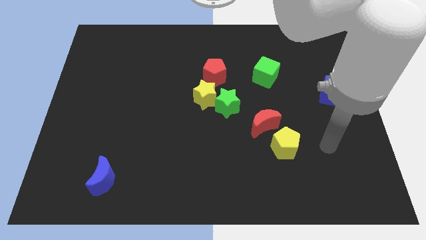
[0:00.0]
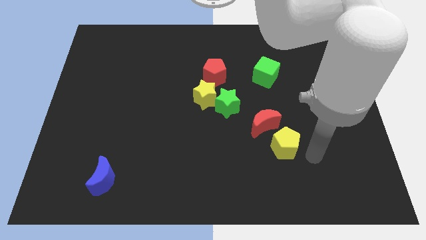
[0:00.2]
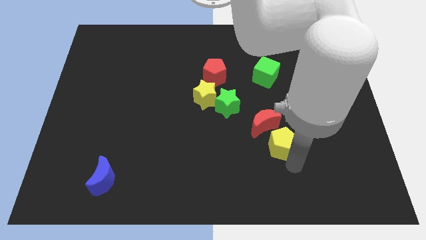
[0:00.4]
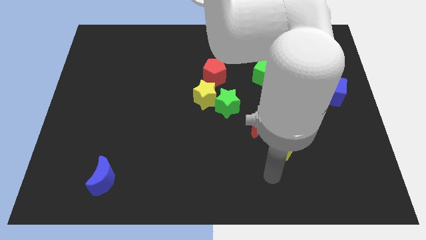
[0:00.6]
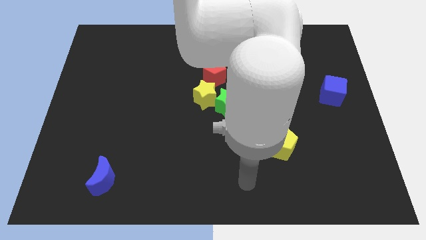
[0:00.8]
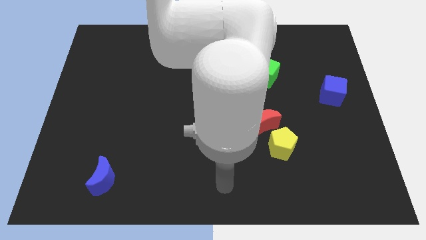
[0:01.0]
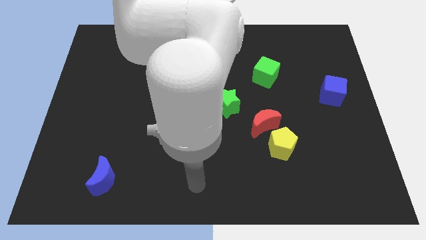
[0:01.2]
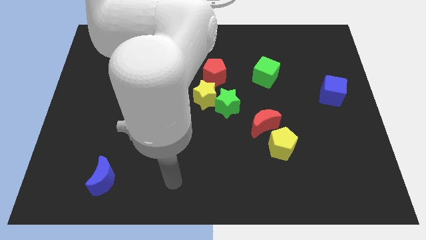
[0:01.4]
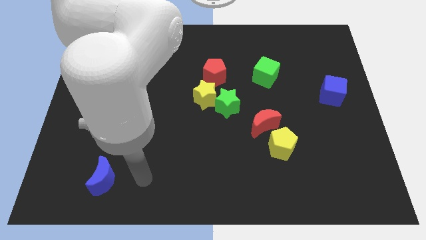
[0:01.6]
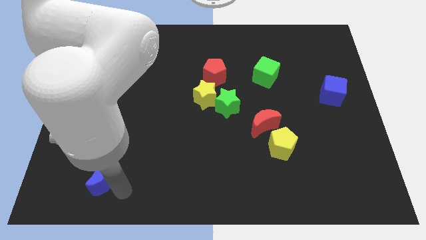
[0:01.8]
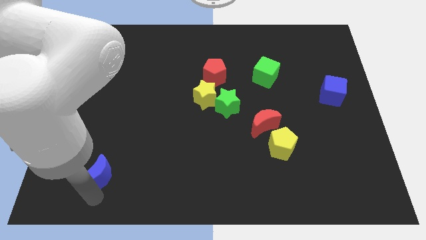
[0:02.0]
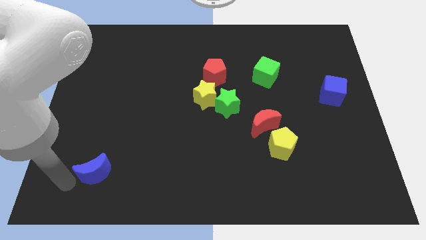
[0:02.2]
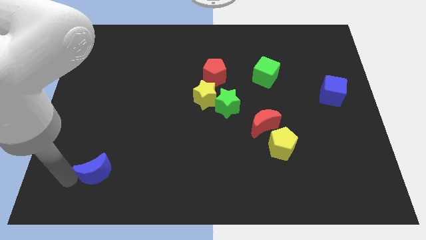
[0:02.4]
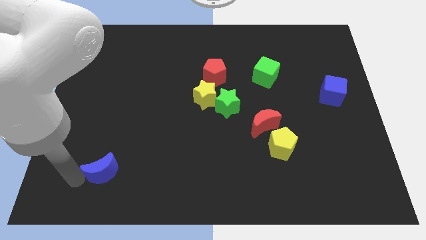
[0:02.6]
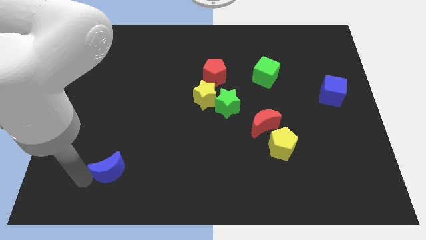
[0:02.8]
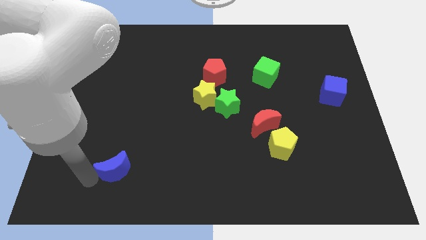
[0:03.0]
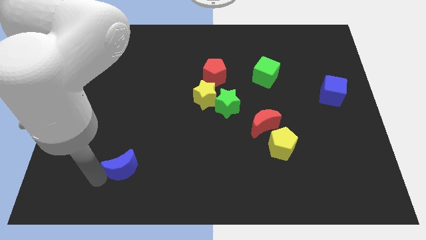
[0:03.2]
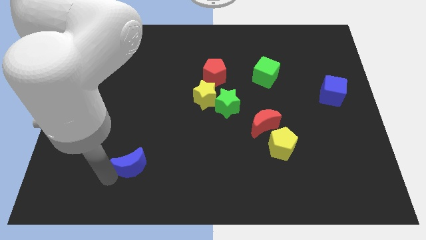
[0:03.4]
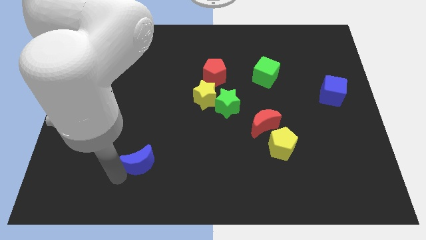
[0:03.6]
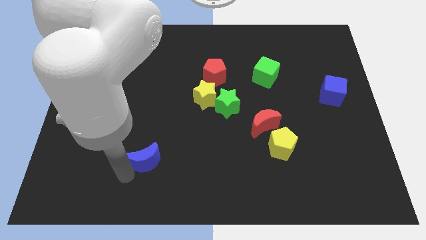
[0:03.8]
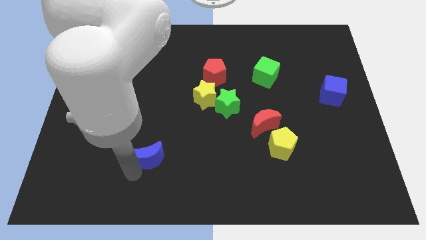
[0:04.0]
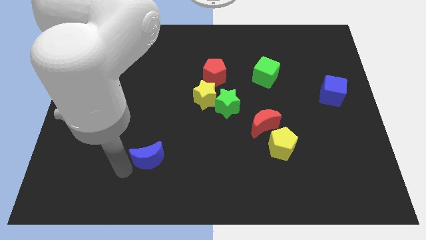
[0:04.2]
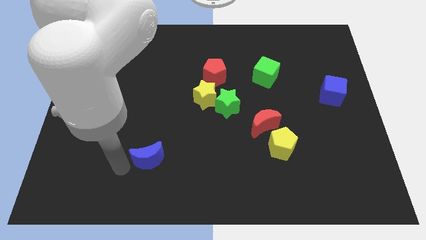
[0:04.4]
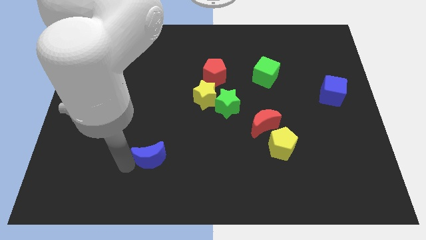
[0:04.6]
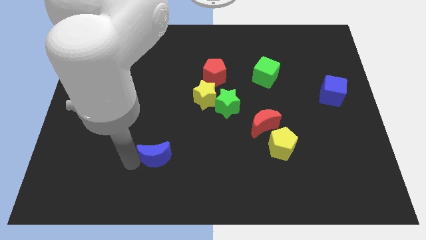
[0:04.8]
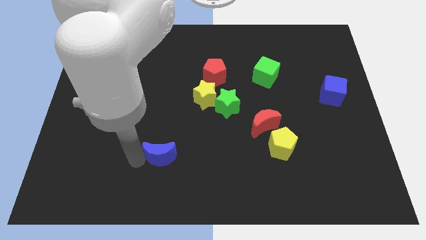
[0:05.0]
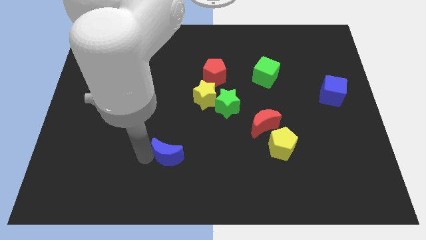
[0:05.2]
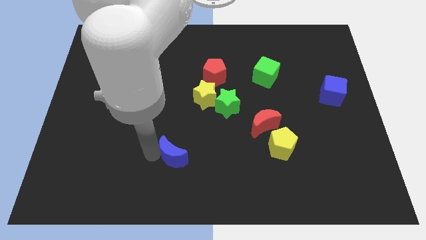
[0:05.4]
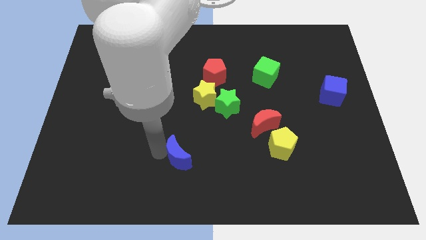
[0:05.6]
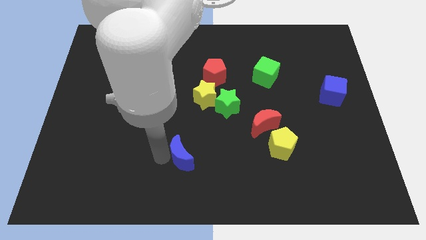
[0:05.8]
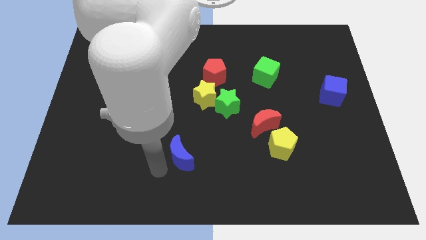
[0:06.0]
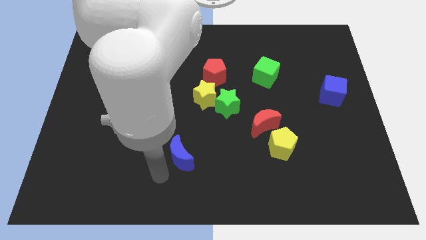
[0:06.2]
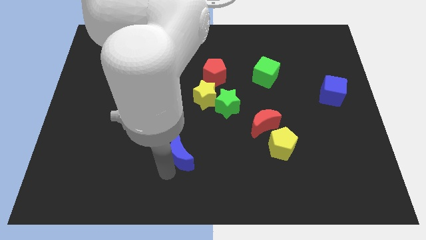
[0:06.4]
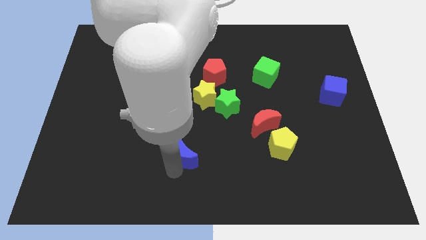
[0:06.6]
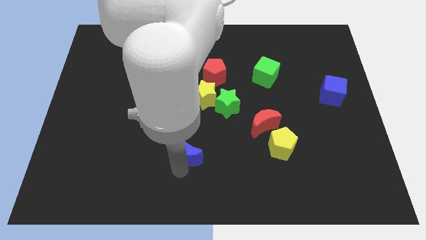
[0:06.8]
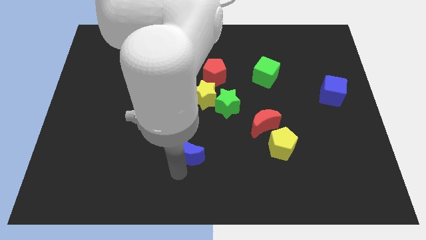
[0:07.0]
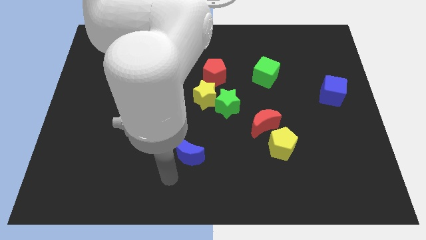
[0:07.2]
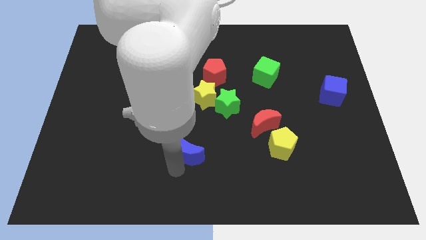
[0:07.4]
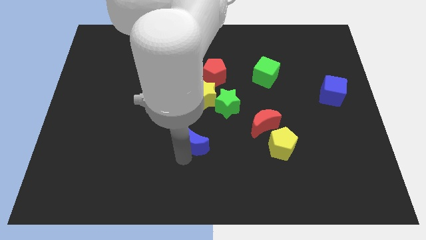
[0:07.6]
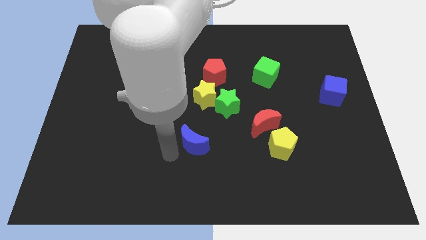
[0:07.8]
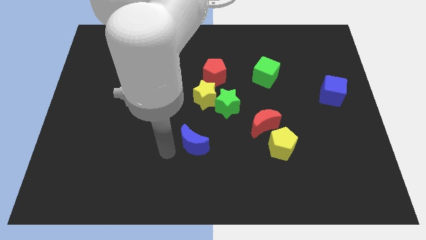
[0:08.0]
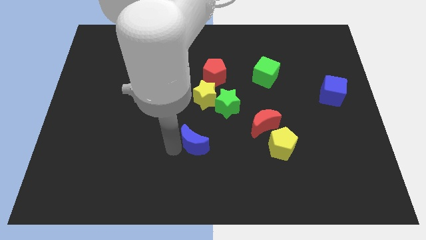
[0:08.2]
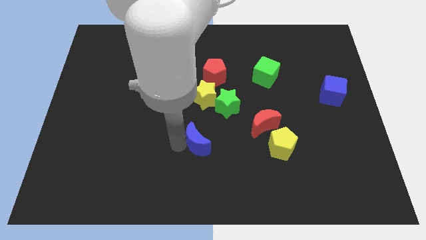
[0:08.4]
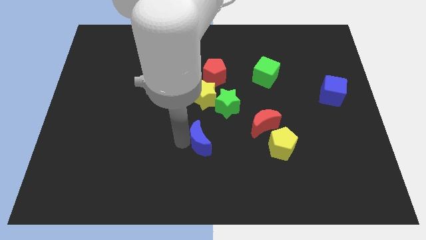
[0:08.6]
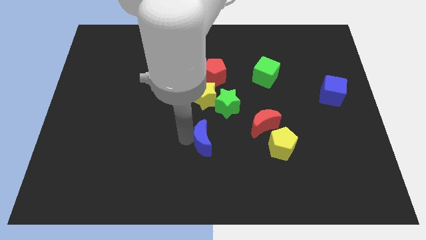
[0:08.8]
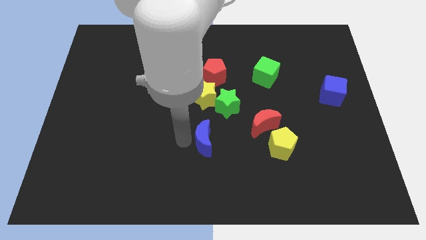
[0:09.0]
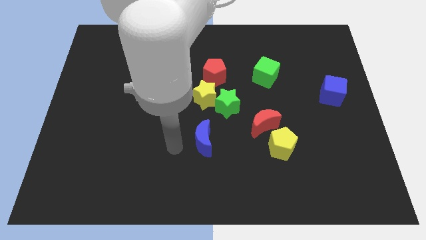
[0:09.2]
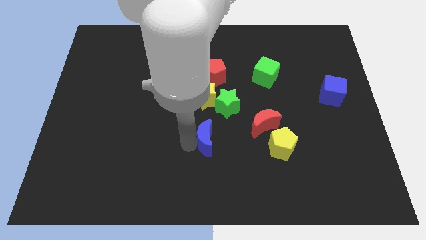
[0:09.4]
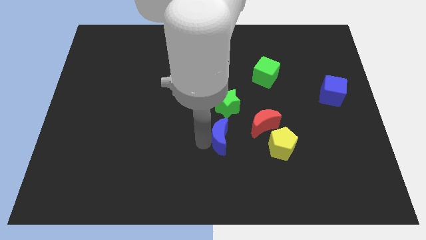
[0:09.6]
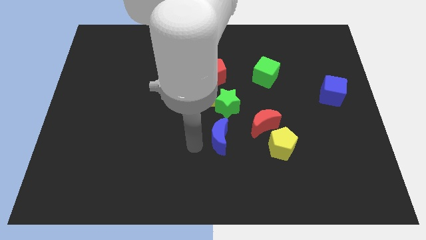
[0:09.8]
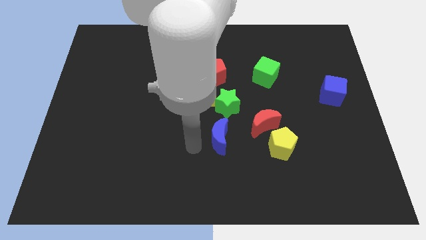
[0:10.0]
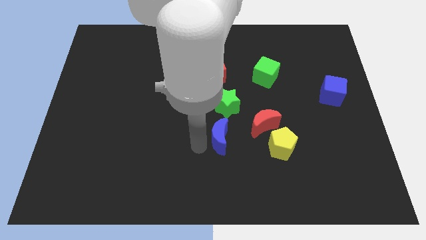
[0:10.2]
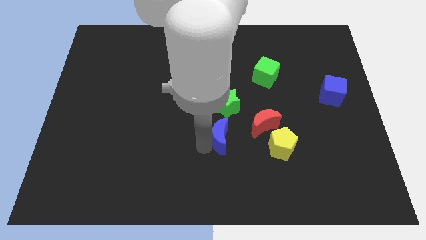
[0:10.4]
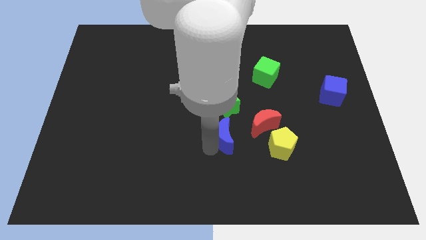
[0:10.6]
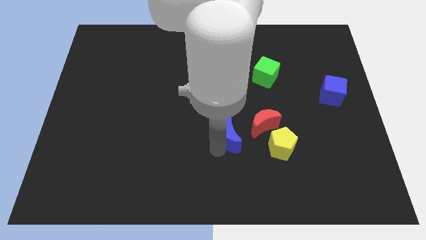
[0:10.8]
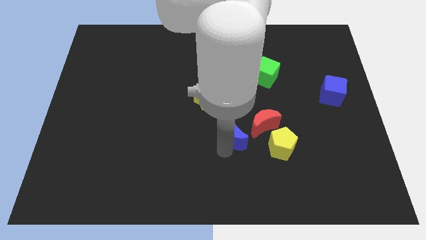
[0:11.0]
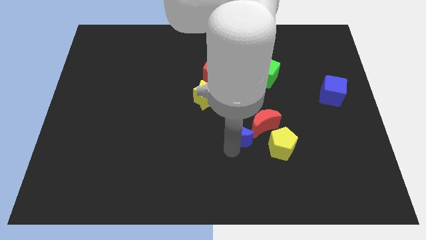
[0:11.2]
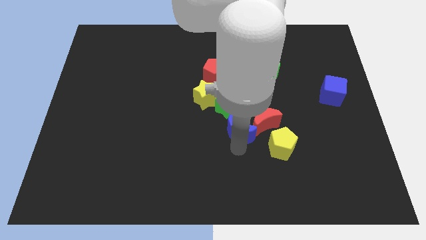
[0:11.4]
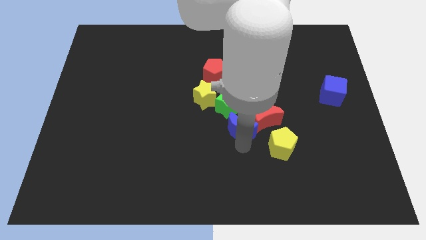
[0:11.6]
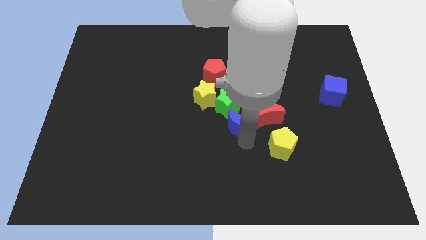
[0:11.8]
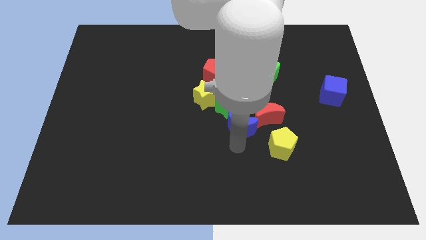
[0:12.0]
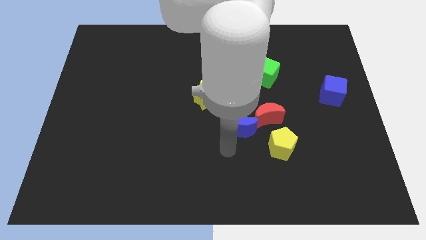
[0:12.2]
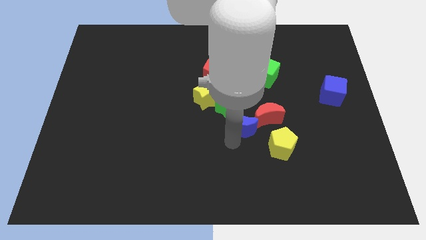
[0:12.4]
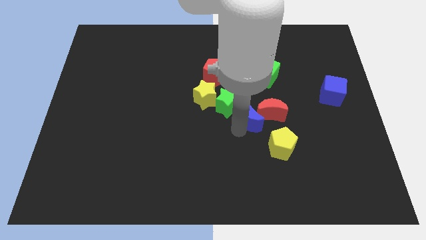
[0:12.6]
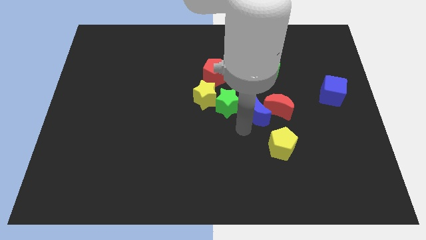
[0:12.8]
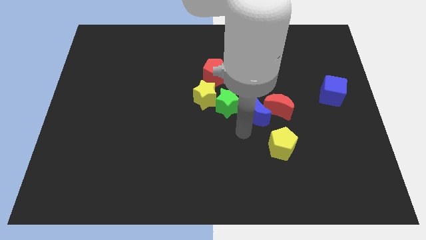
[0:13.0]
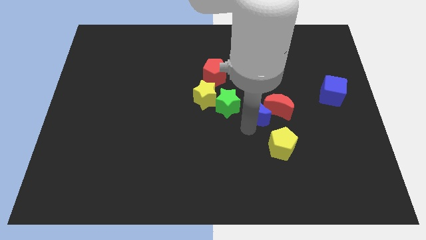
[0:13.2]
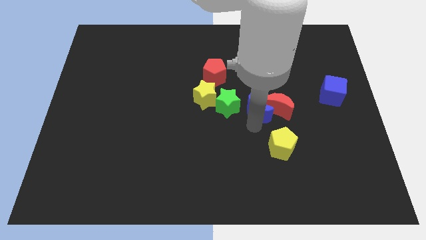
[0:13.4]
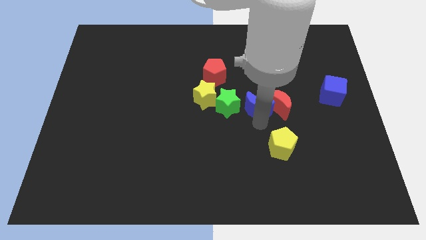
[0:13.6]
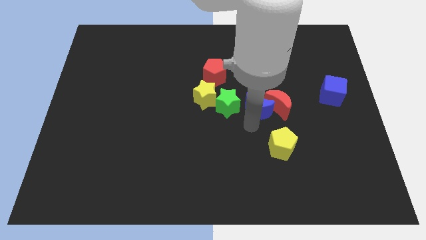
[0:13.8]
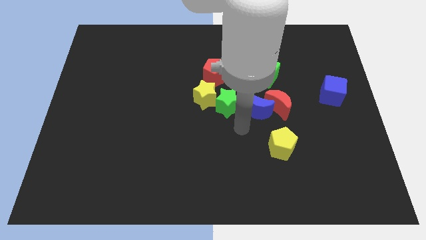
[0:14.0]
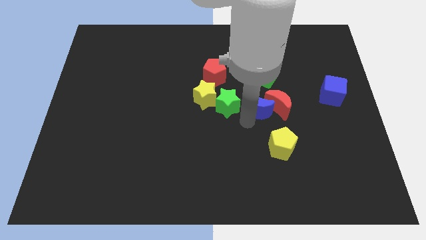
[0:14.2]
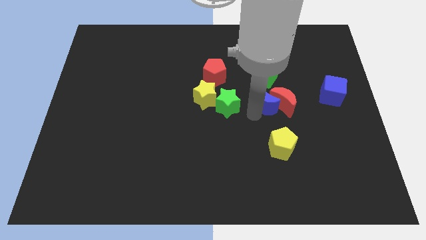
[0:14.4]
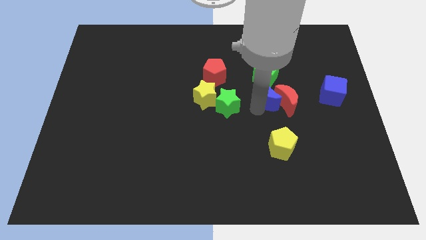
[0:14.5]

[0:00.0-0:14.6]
put the blue moon just left of the blue cube
